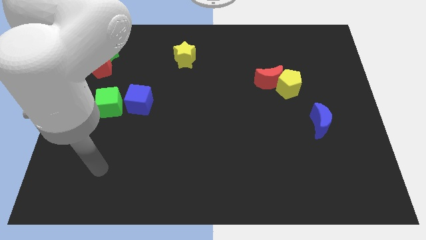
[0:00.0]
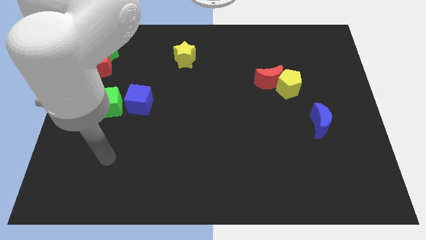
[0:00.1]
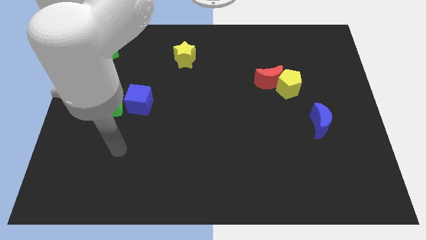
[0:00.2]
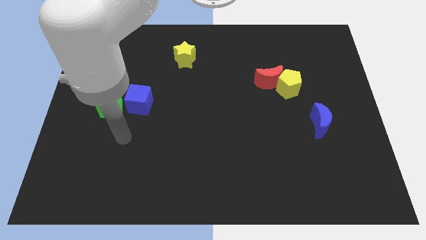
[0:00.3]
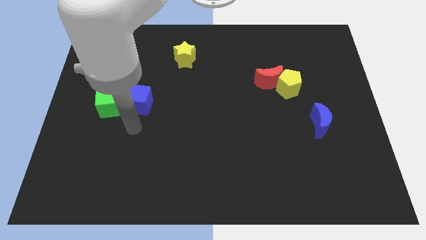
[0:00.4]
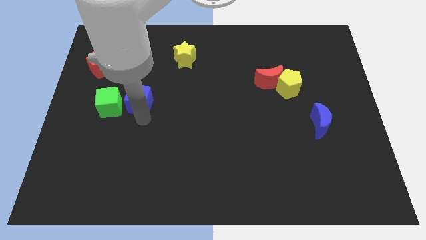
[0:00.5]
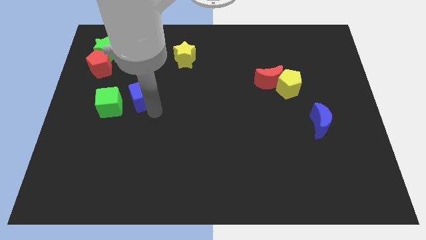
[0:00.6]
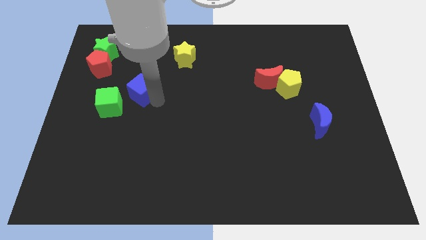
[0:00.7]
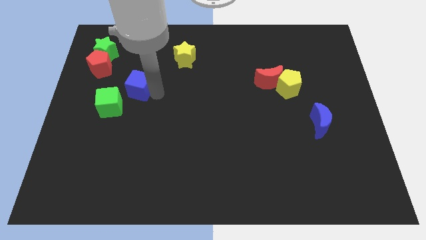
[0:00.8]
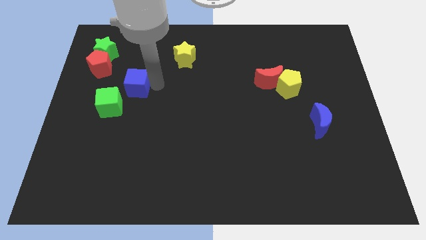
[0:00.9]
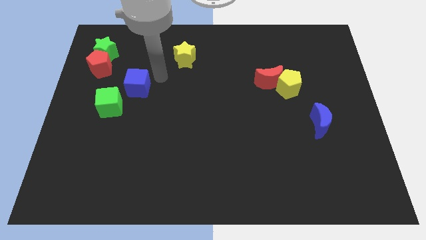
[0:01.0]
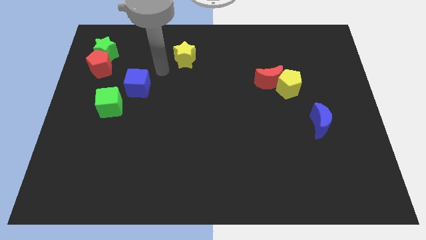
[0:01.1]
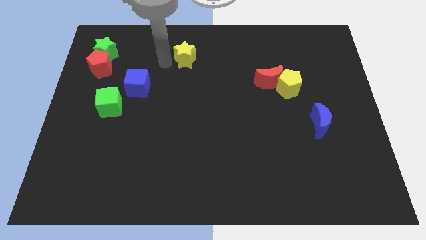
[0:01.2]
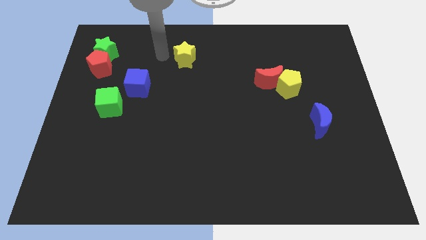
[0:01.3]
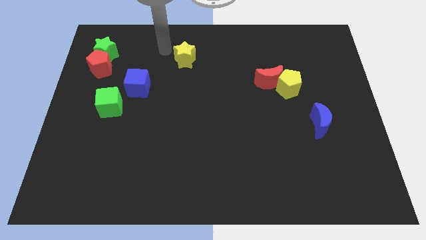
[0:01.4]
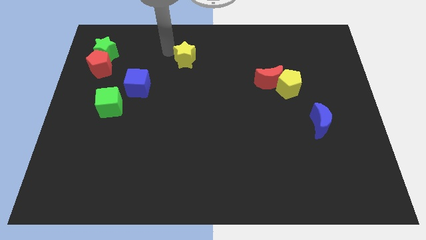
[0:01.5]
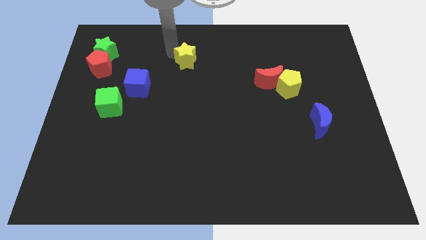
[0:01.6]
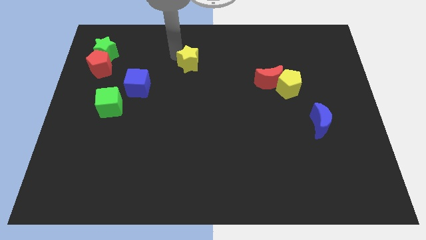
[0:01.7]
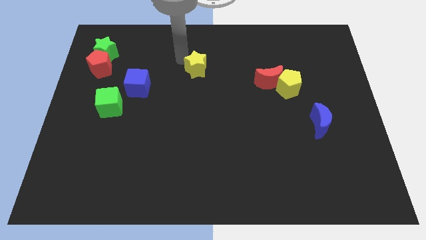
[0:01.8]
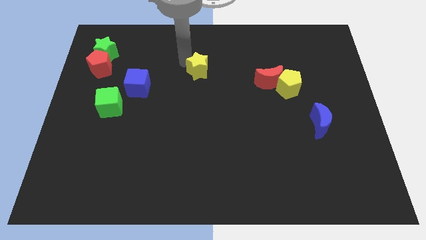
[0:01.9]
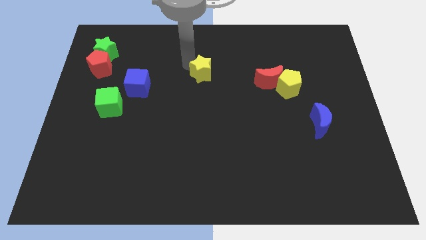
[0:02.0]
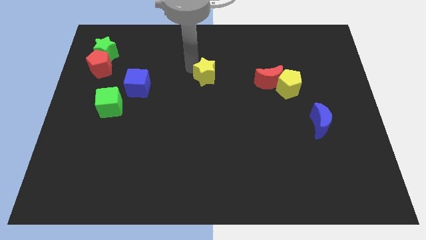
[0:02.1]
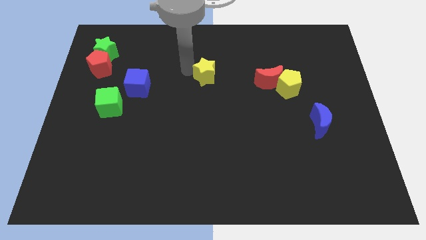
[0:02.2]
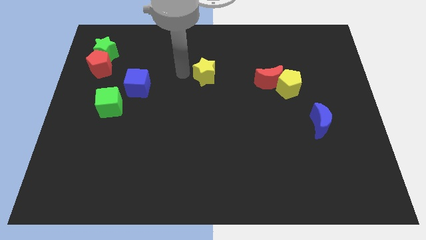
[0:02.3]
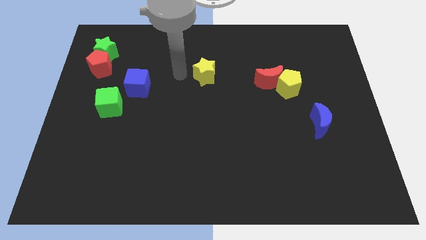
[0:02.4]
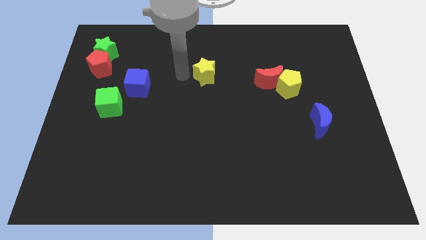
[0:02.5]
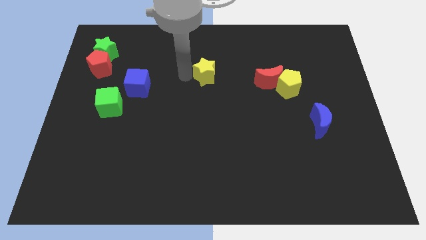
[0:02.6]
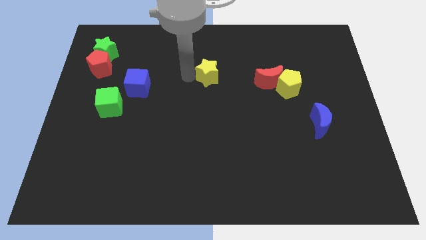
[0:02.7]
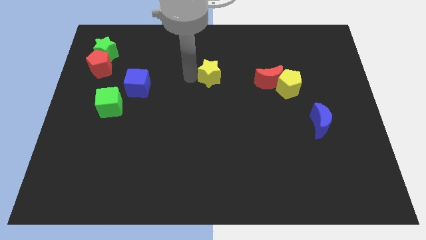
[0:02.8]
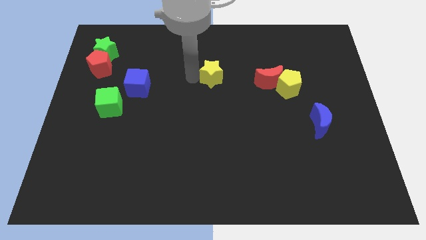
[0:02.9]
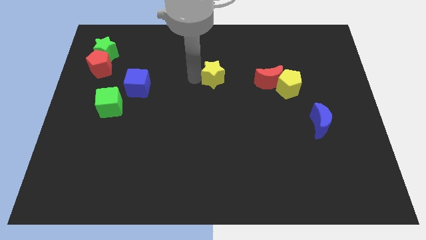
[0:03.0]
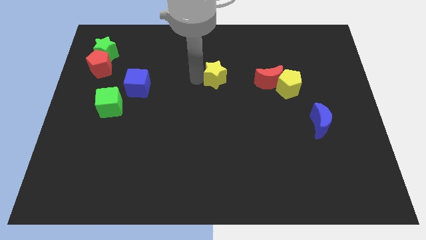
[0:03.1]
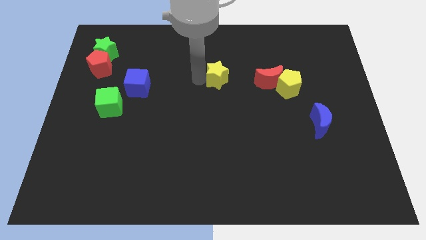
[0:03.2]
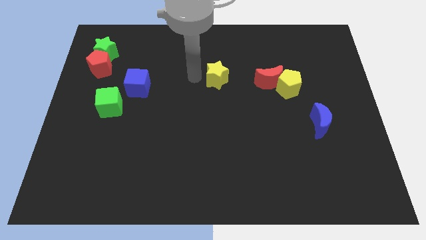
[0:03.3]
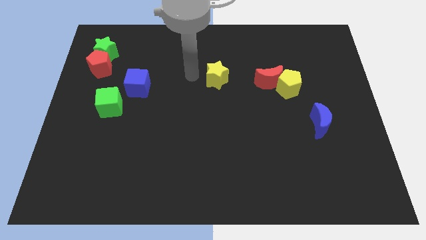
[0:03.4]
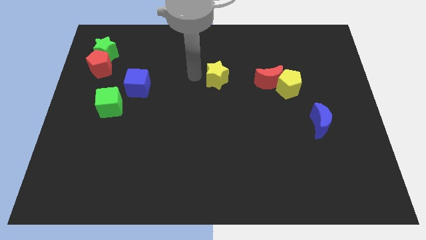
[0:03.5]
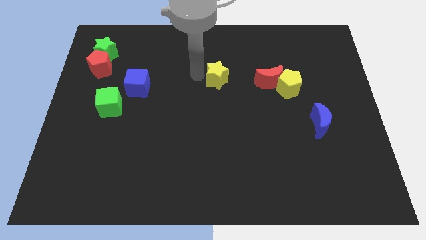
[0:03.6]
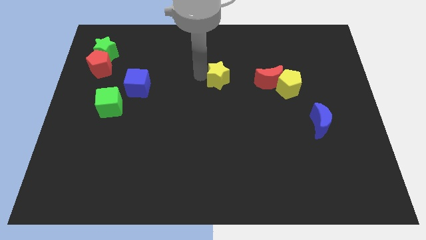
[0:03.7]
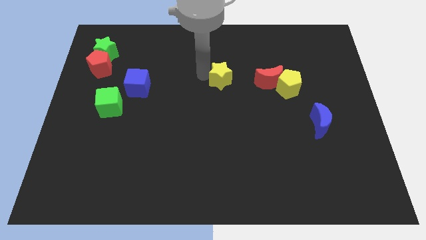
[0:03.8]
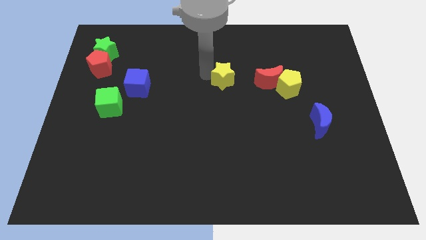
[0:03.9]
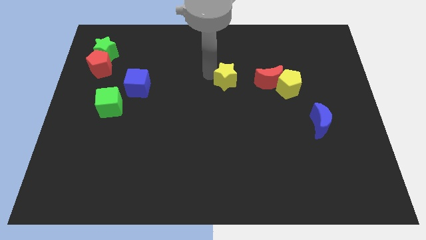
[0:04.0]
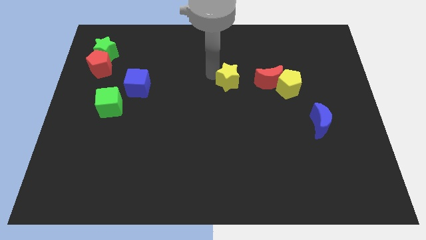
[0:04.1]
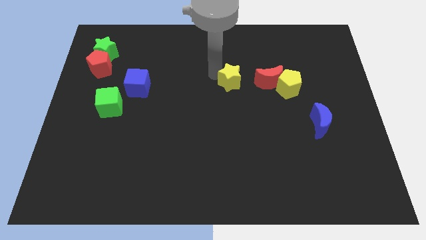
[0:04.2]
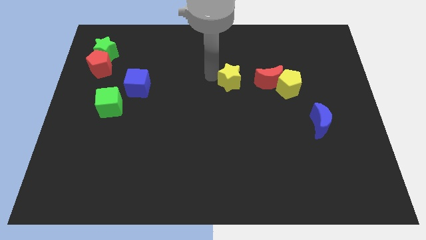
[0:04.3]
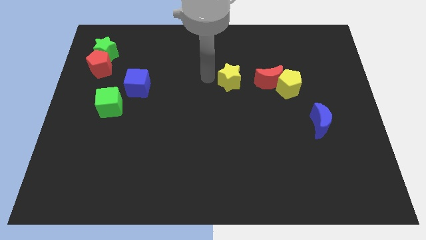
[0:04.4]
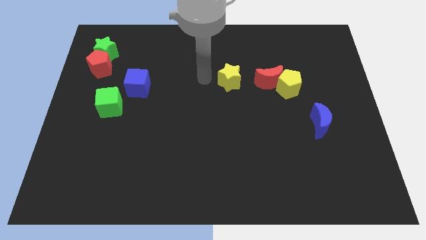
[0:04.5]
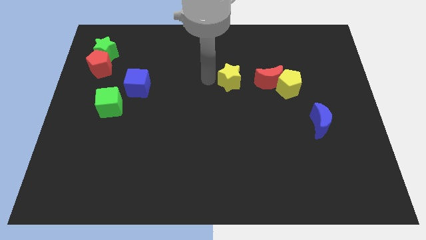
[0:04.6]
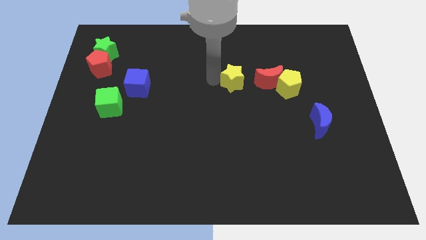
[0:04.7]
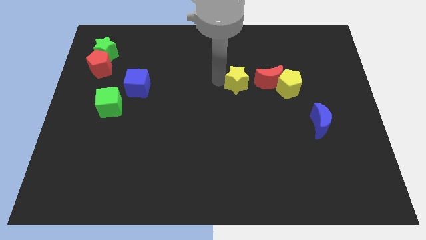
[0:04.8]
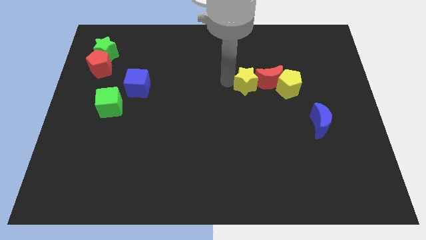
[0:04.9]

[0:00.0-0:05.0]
put the yellow star to the red moon

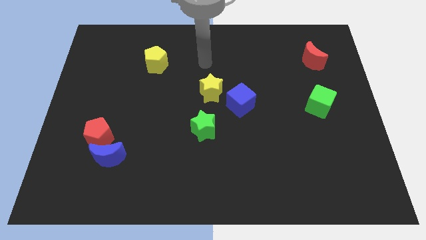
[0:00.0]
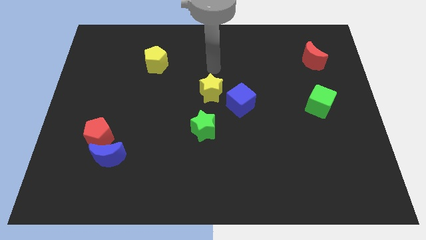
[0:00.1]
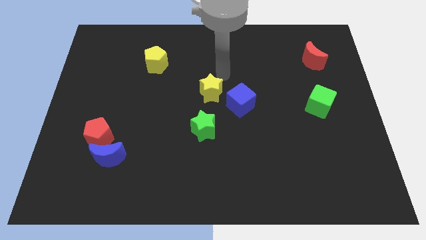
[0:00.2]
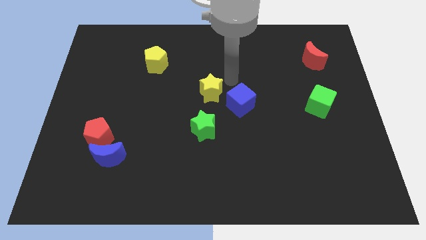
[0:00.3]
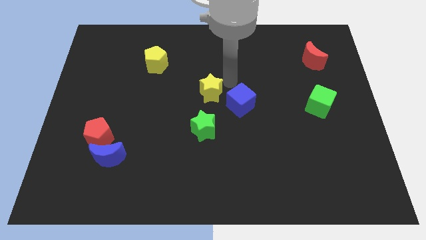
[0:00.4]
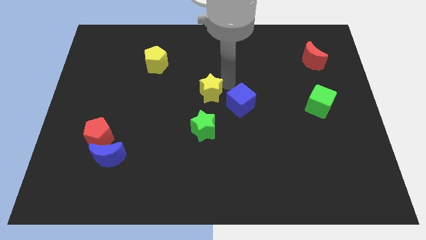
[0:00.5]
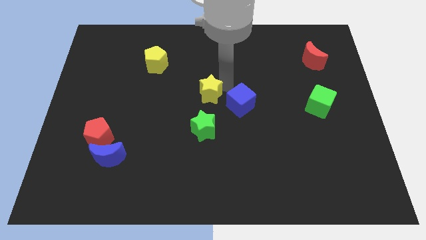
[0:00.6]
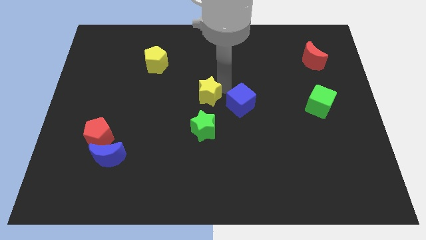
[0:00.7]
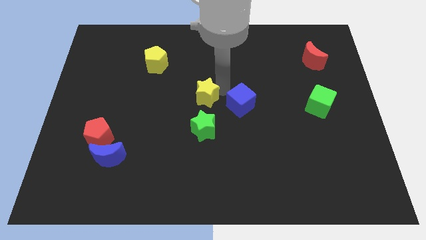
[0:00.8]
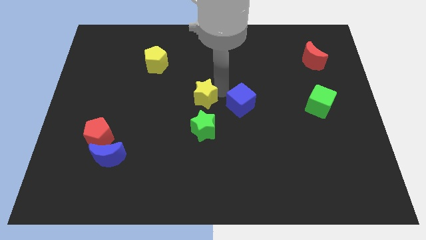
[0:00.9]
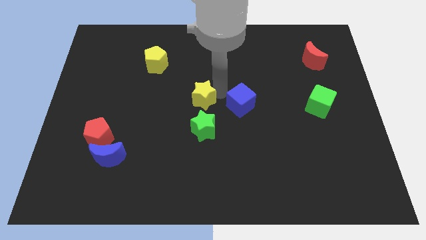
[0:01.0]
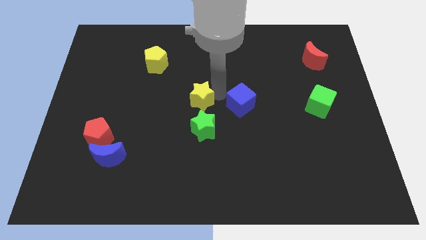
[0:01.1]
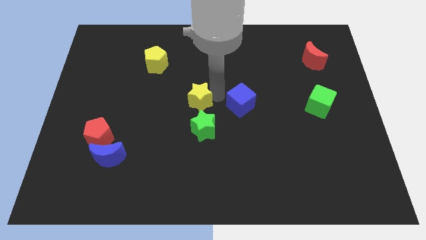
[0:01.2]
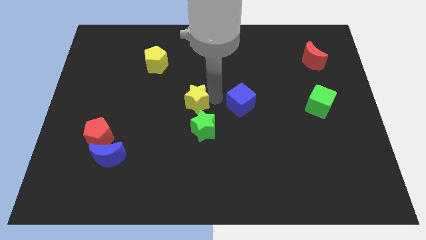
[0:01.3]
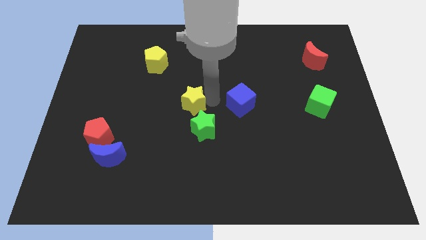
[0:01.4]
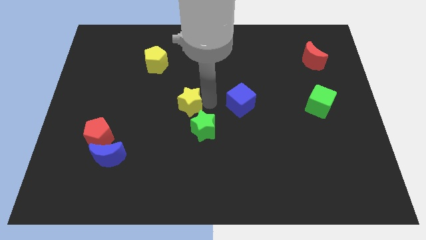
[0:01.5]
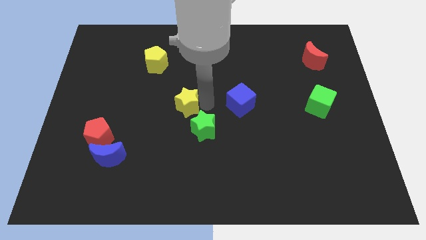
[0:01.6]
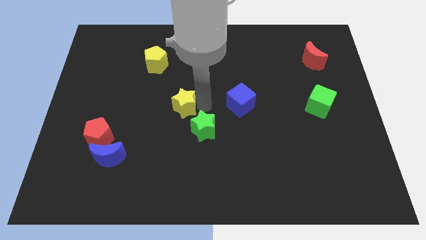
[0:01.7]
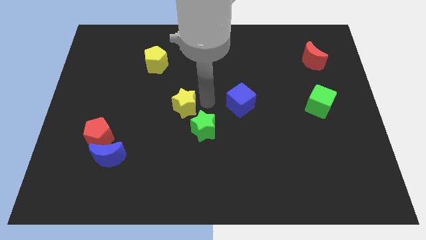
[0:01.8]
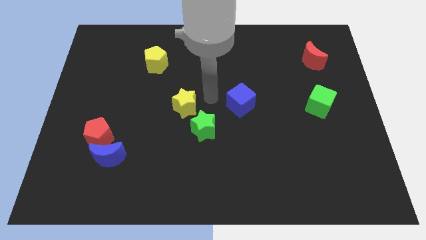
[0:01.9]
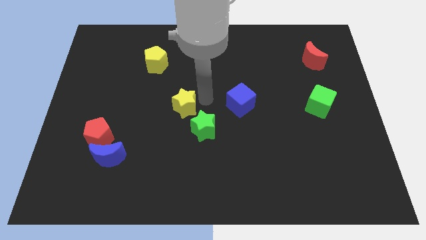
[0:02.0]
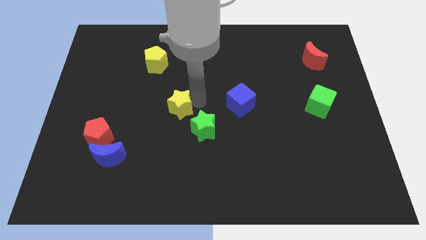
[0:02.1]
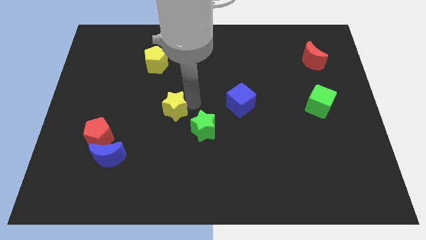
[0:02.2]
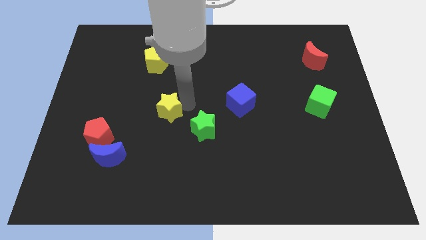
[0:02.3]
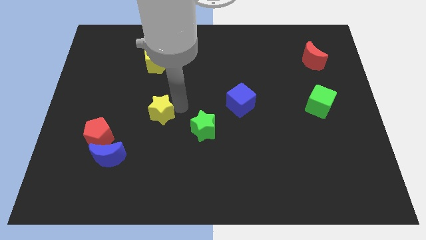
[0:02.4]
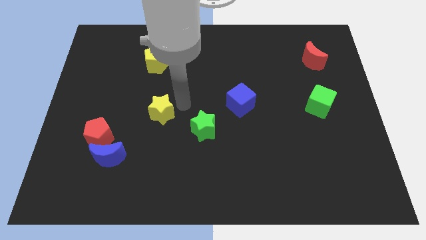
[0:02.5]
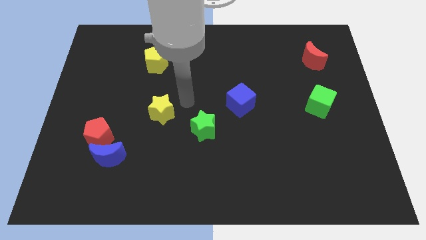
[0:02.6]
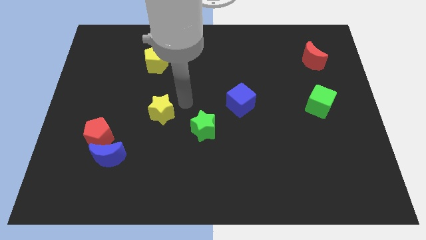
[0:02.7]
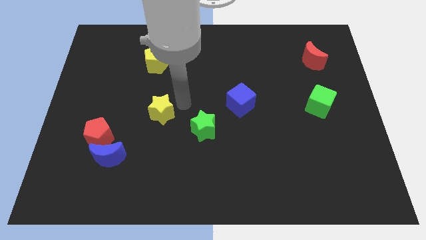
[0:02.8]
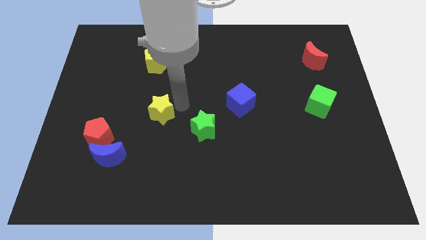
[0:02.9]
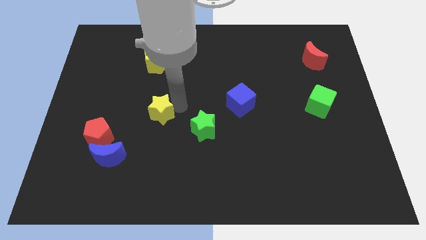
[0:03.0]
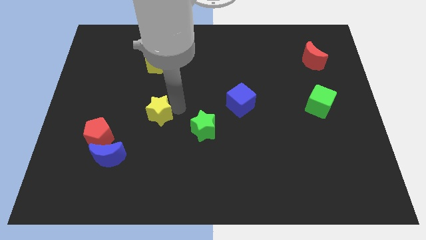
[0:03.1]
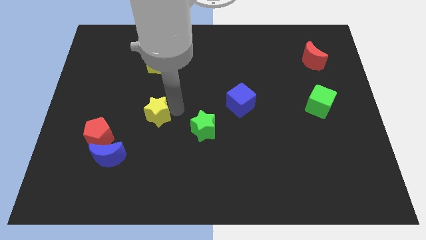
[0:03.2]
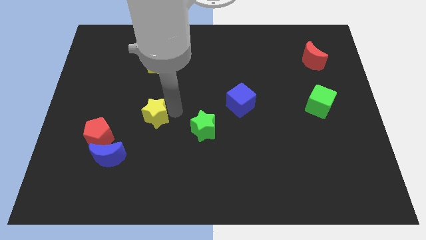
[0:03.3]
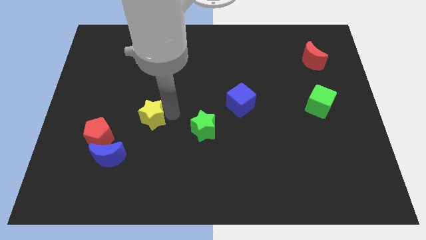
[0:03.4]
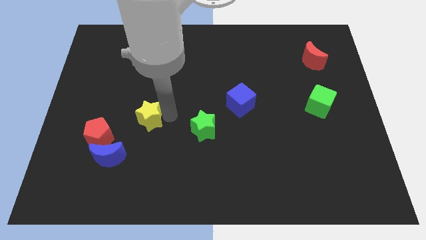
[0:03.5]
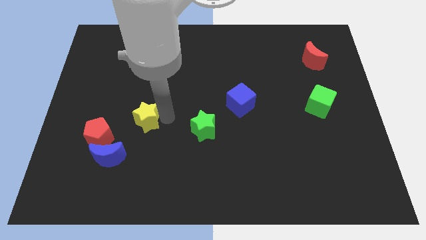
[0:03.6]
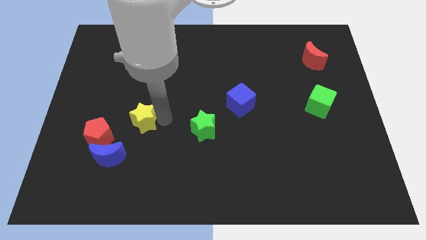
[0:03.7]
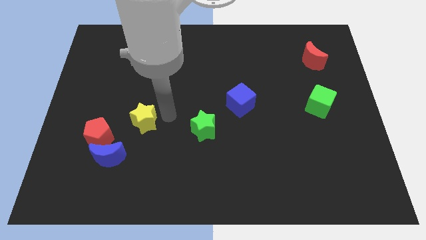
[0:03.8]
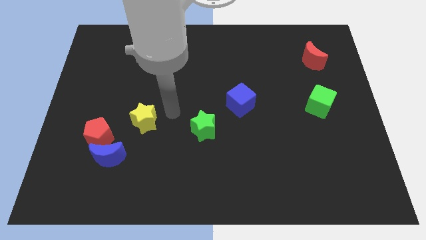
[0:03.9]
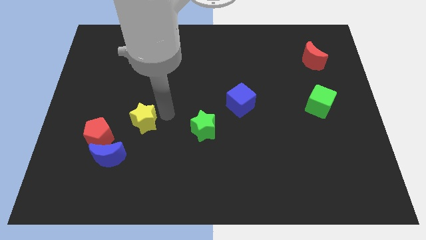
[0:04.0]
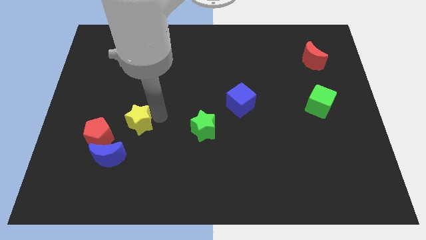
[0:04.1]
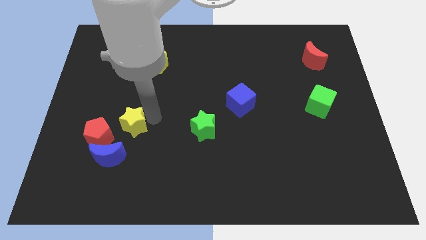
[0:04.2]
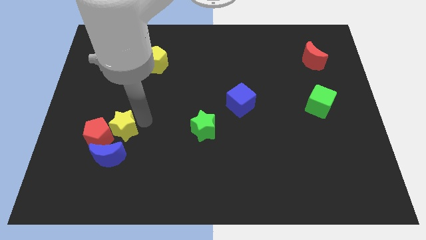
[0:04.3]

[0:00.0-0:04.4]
move the yellow star close to the red pentagon
